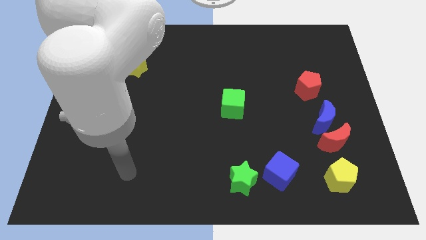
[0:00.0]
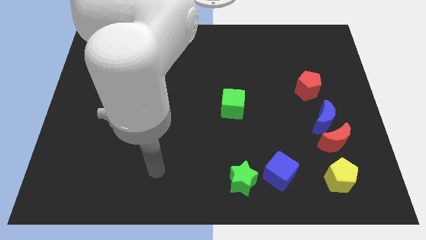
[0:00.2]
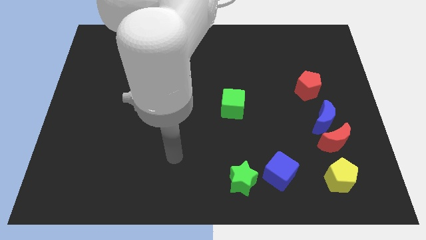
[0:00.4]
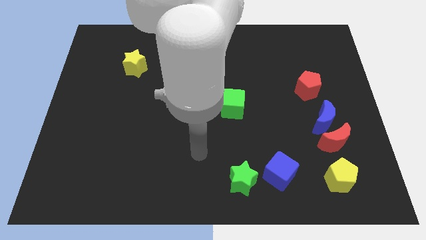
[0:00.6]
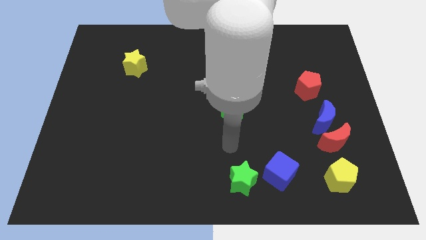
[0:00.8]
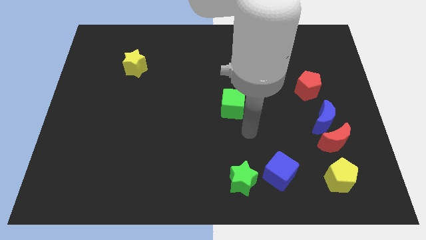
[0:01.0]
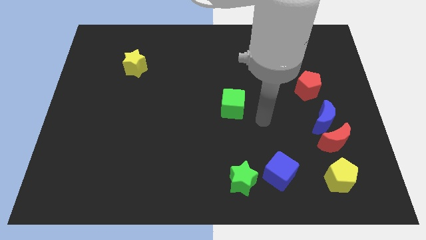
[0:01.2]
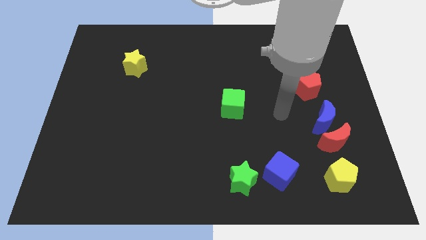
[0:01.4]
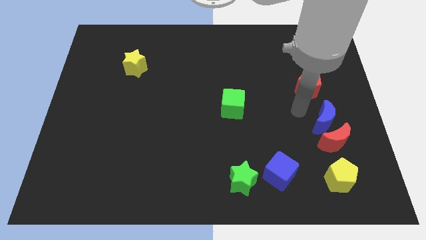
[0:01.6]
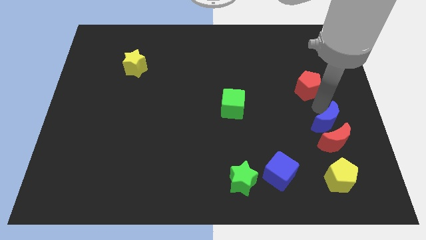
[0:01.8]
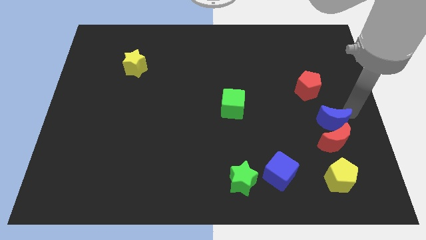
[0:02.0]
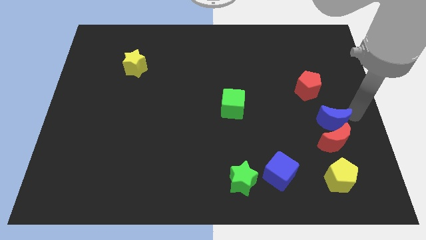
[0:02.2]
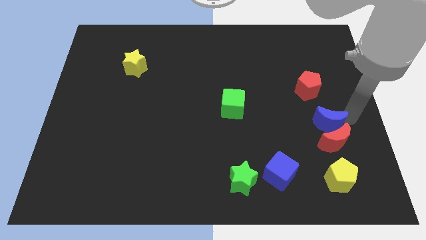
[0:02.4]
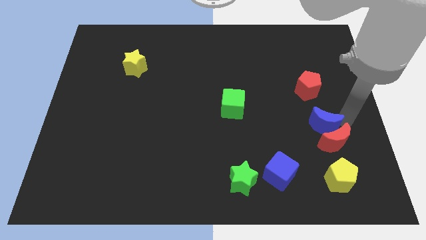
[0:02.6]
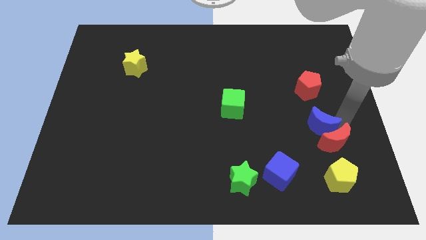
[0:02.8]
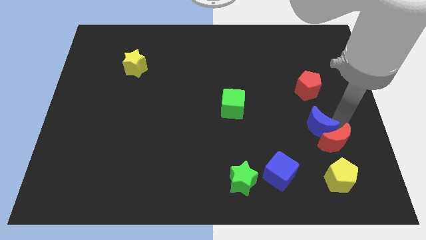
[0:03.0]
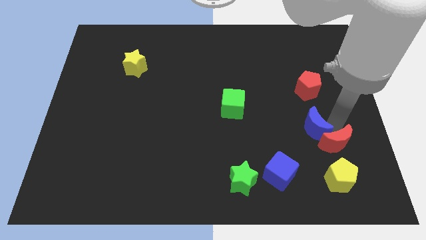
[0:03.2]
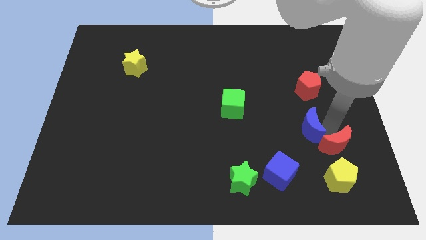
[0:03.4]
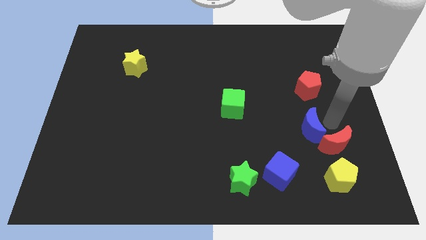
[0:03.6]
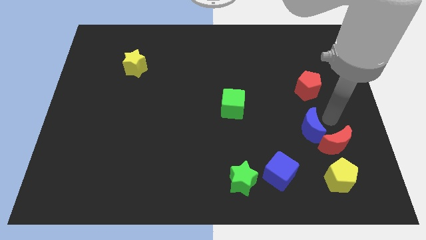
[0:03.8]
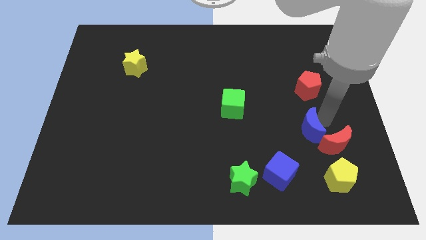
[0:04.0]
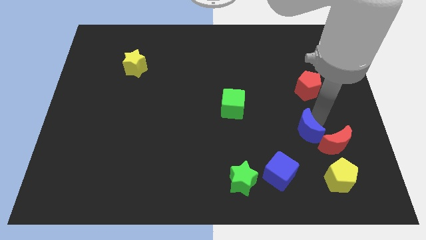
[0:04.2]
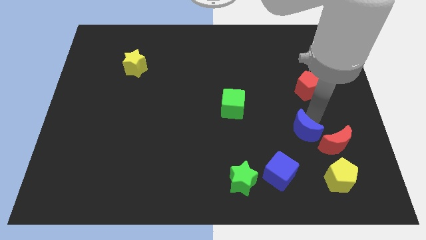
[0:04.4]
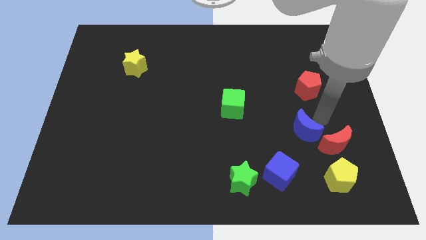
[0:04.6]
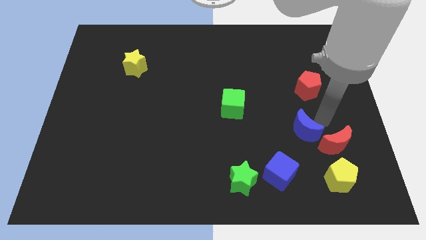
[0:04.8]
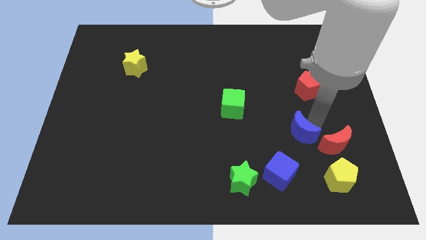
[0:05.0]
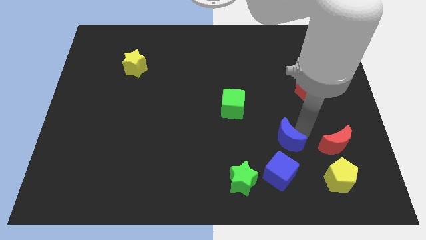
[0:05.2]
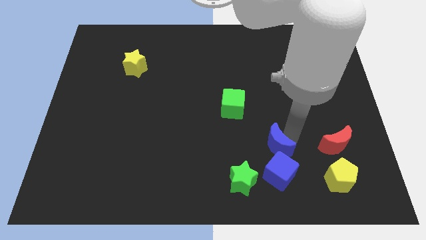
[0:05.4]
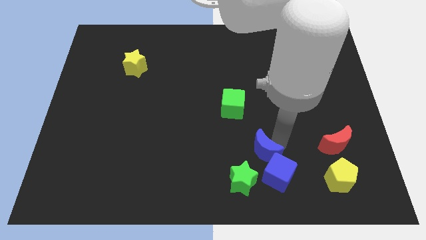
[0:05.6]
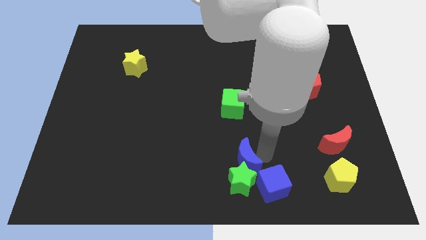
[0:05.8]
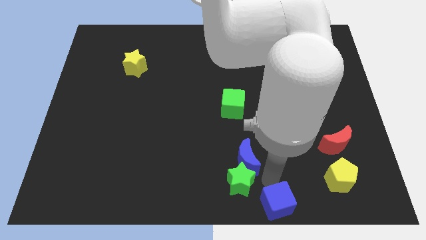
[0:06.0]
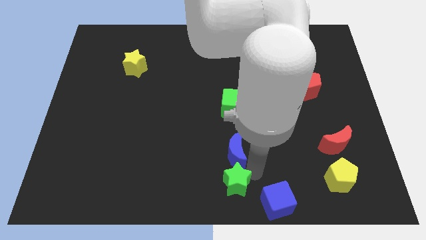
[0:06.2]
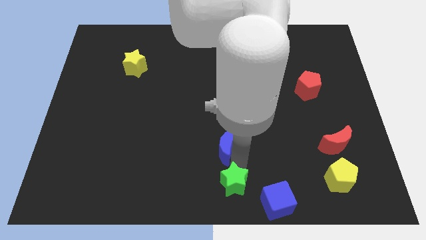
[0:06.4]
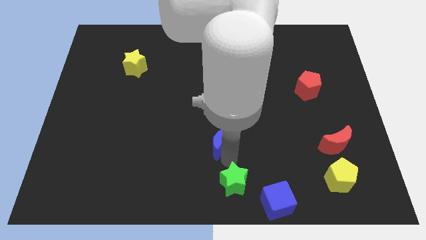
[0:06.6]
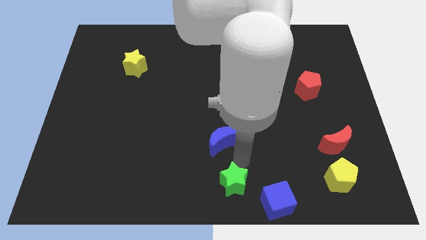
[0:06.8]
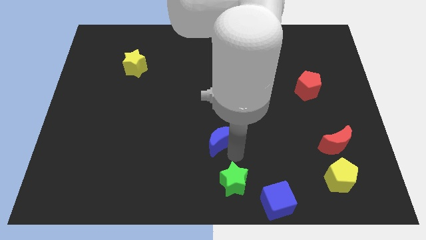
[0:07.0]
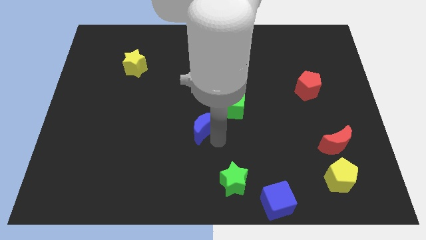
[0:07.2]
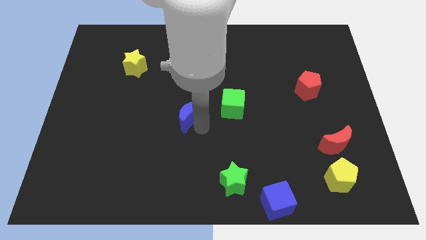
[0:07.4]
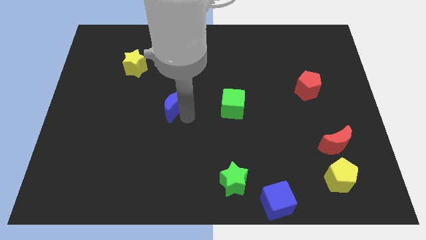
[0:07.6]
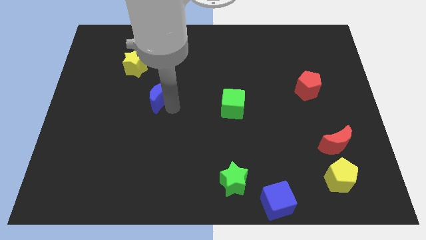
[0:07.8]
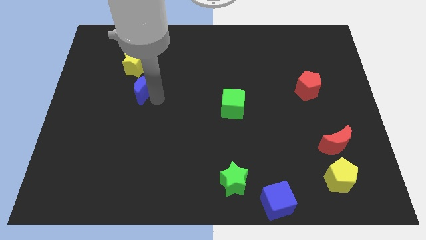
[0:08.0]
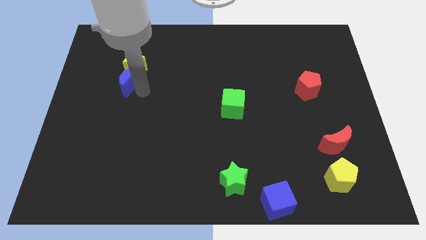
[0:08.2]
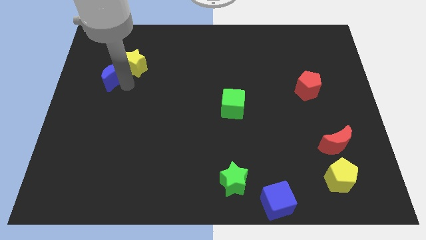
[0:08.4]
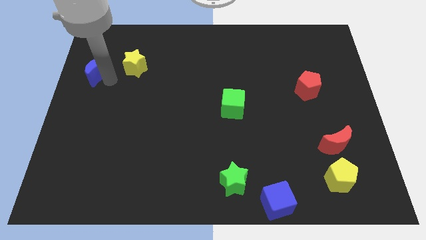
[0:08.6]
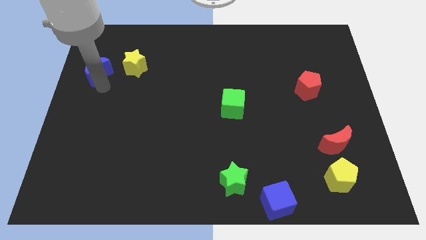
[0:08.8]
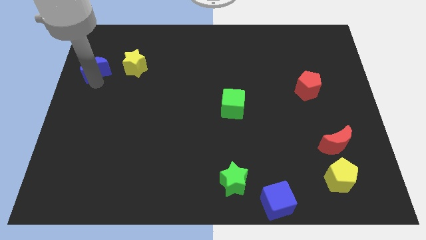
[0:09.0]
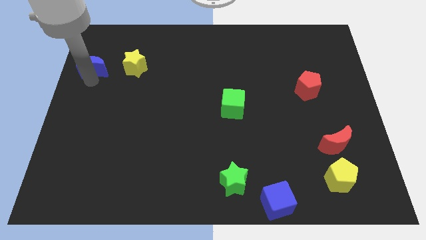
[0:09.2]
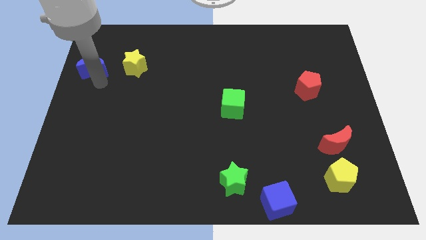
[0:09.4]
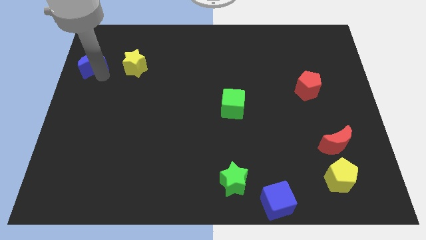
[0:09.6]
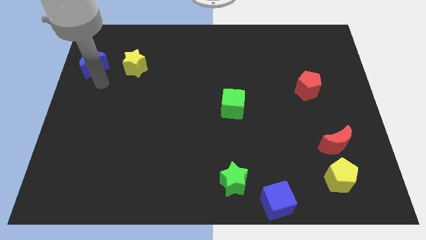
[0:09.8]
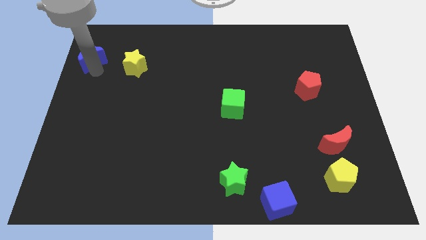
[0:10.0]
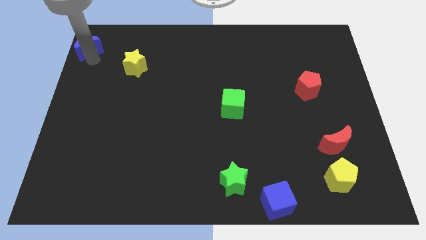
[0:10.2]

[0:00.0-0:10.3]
move the blue moon to the top left of the board

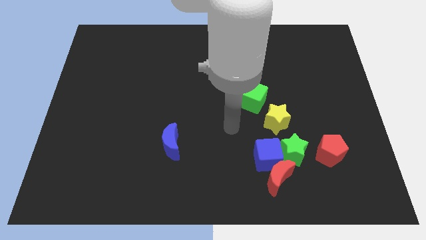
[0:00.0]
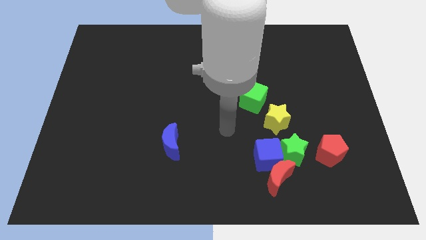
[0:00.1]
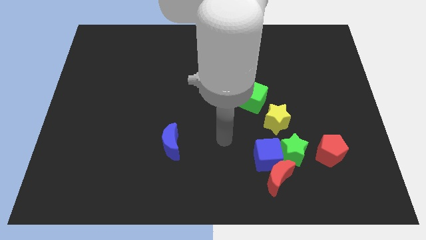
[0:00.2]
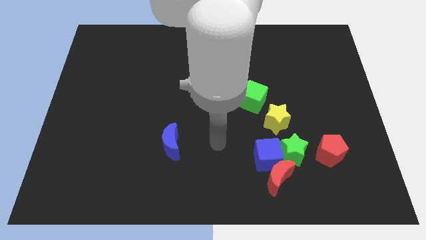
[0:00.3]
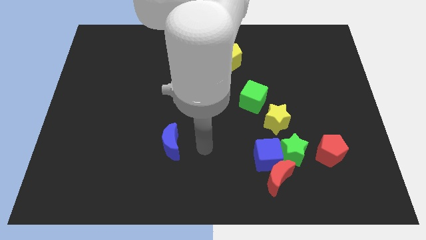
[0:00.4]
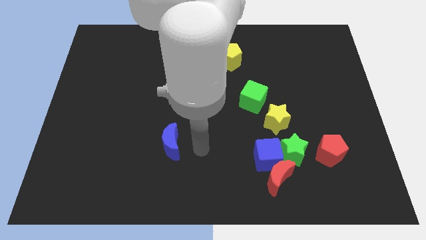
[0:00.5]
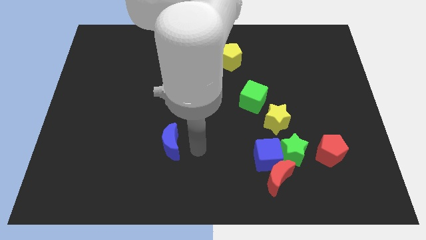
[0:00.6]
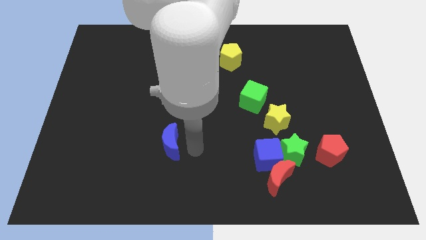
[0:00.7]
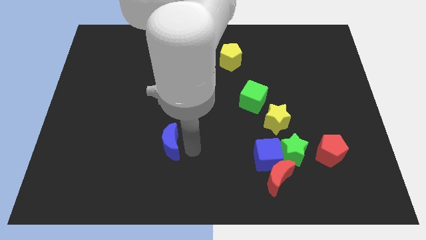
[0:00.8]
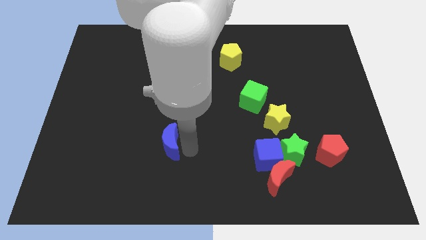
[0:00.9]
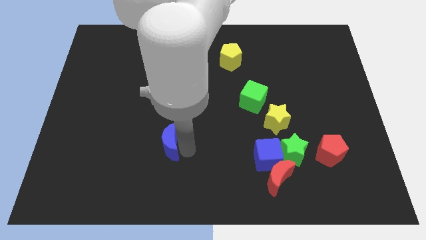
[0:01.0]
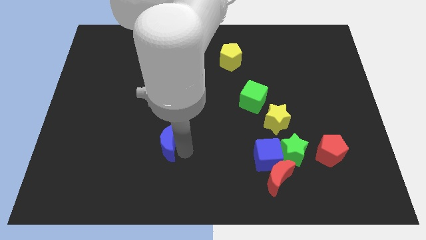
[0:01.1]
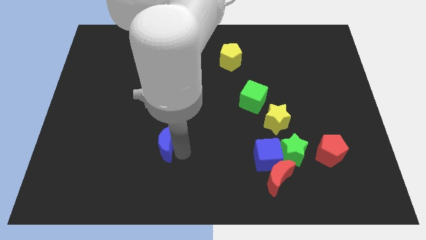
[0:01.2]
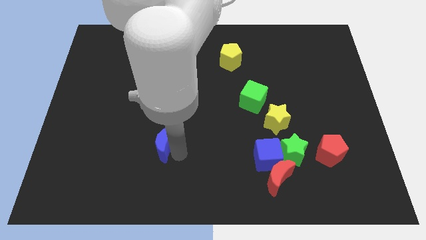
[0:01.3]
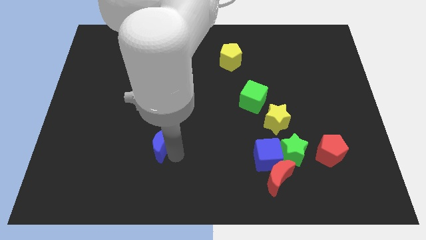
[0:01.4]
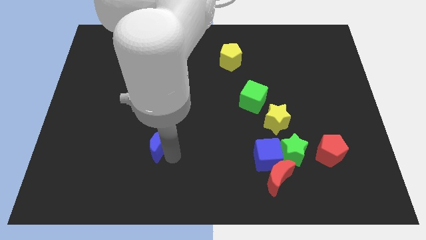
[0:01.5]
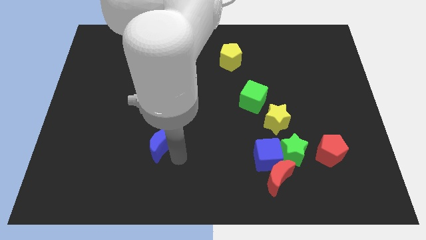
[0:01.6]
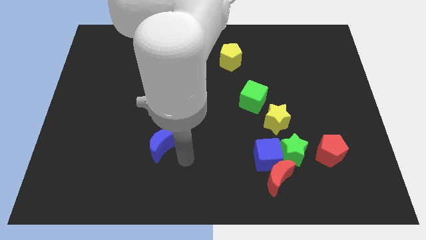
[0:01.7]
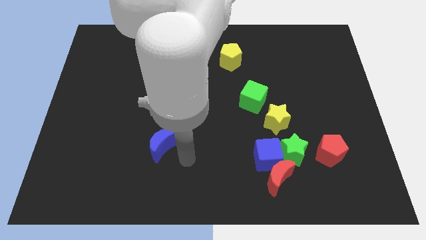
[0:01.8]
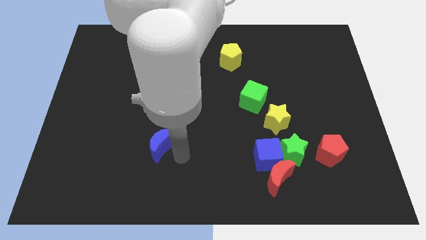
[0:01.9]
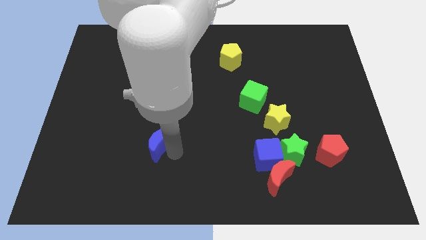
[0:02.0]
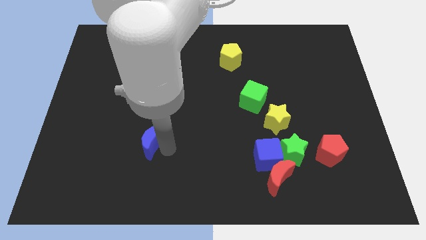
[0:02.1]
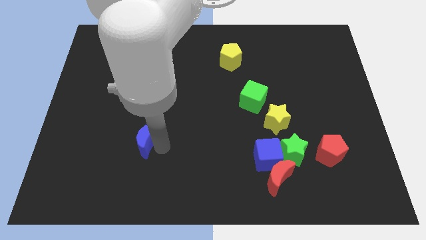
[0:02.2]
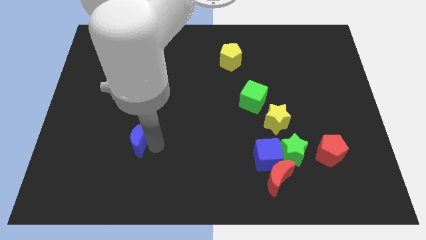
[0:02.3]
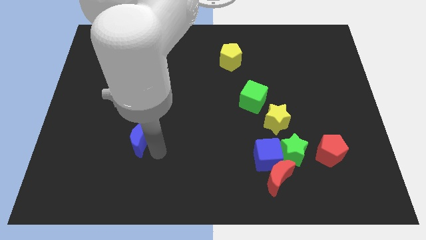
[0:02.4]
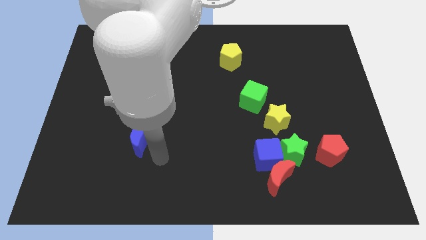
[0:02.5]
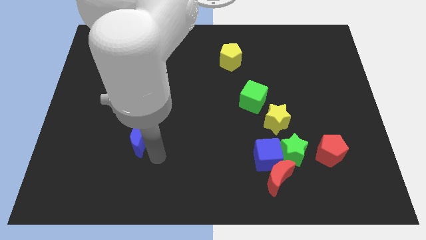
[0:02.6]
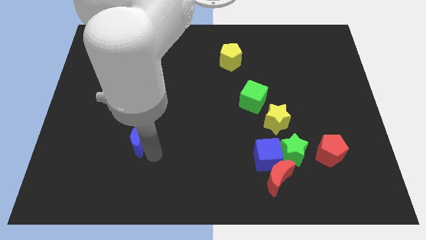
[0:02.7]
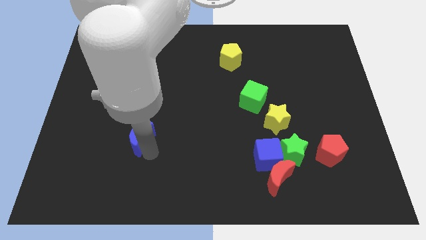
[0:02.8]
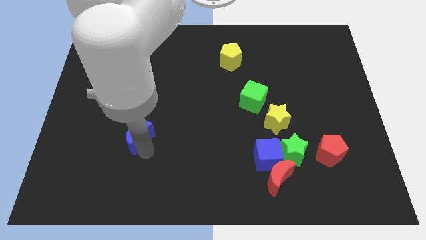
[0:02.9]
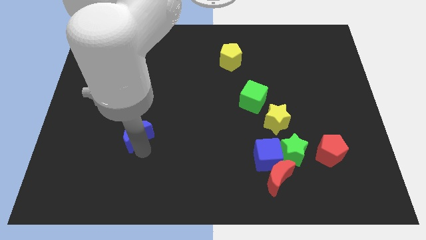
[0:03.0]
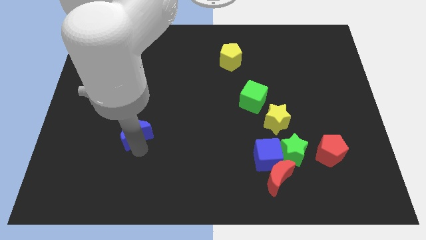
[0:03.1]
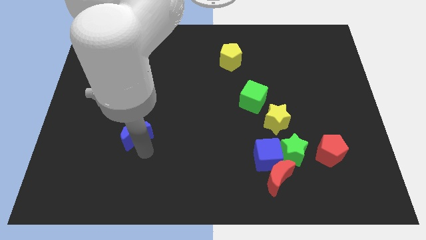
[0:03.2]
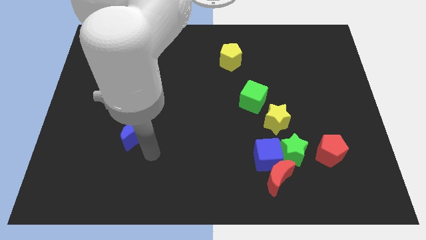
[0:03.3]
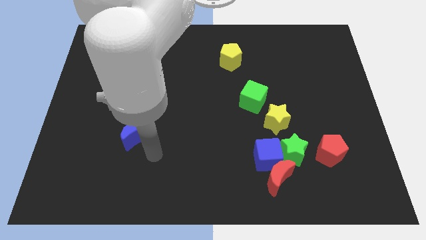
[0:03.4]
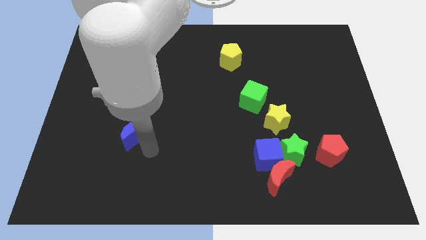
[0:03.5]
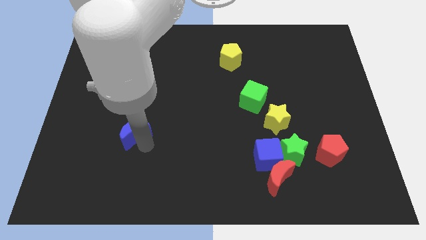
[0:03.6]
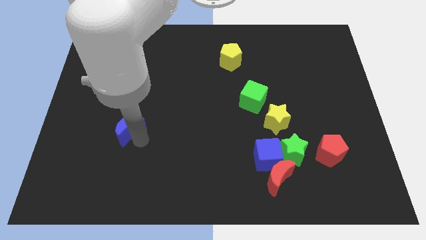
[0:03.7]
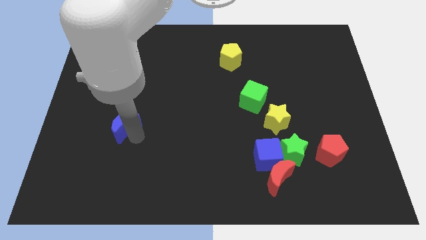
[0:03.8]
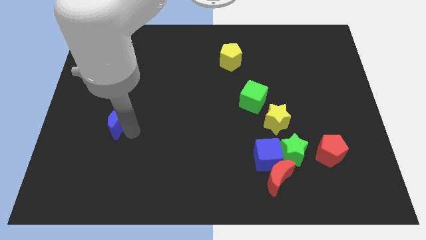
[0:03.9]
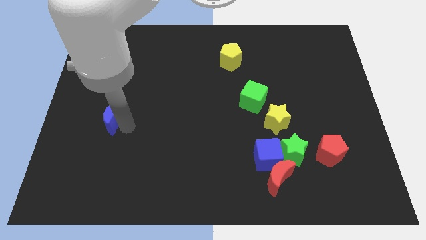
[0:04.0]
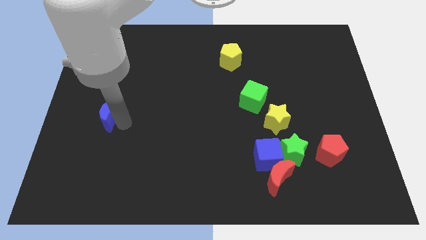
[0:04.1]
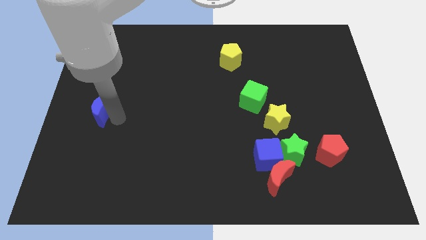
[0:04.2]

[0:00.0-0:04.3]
push the blue moon to the center left
